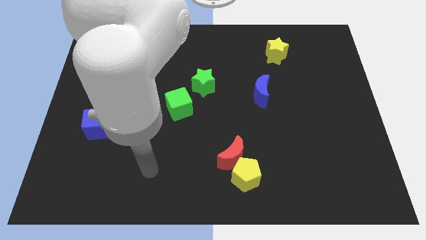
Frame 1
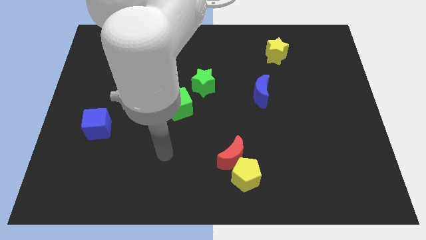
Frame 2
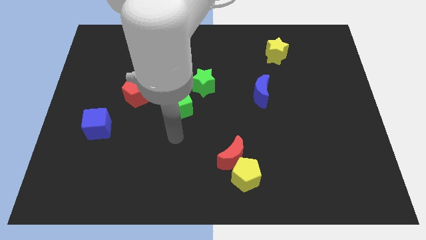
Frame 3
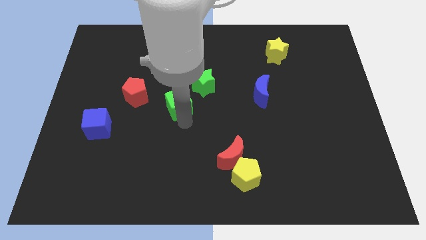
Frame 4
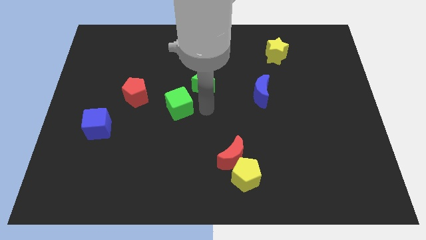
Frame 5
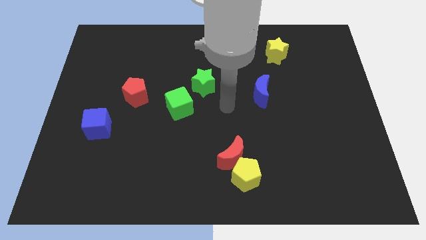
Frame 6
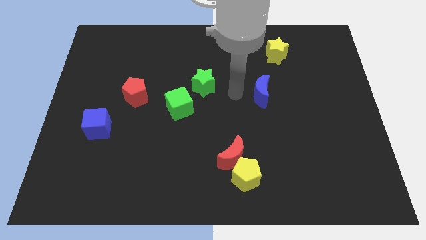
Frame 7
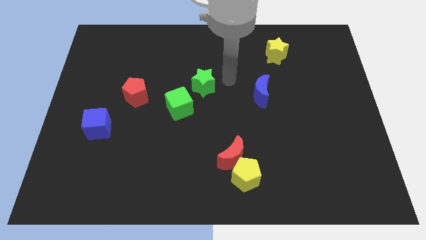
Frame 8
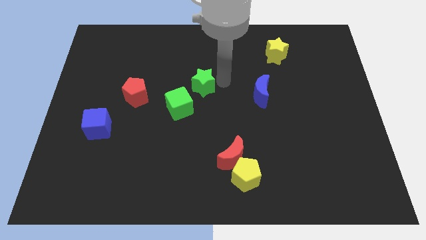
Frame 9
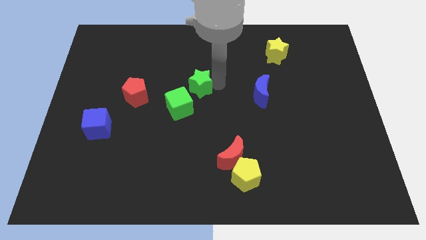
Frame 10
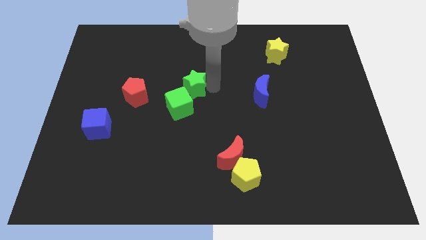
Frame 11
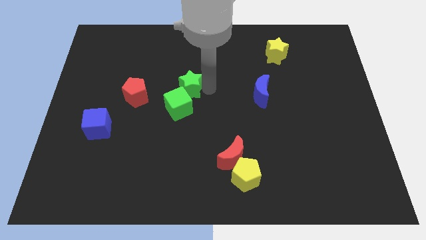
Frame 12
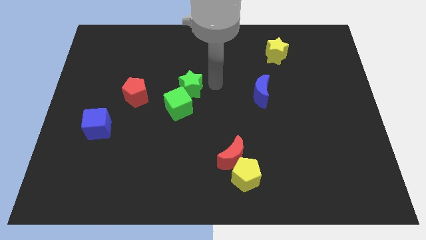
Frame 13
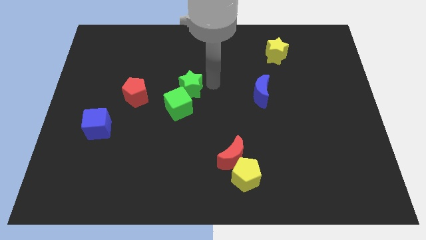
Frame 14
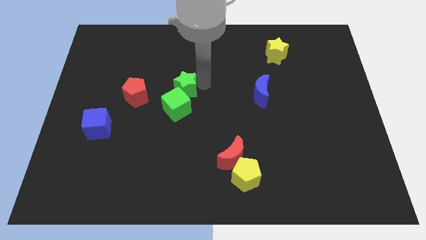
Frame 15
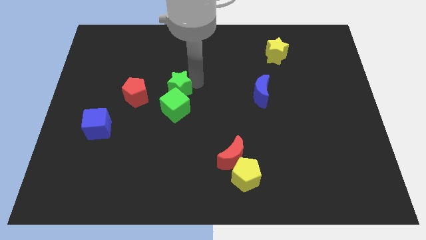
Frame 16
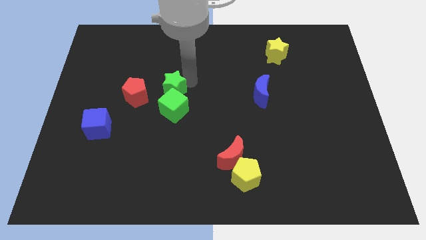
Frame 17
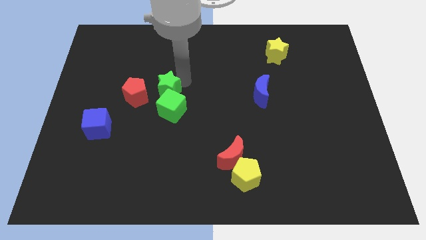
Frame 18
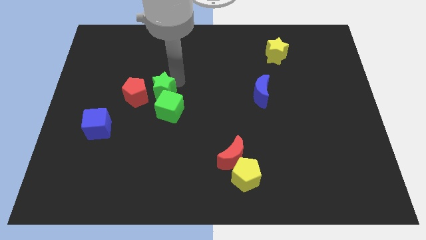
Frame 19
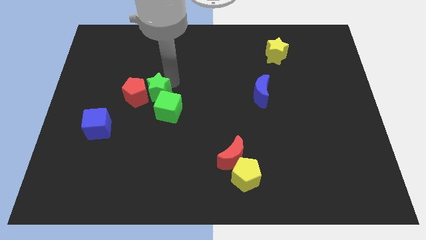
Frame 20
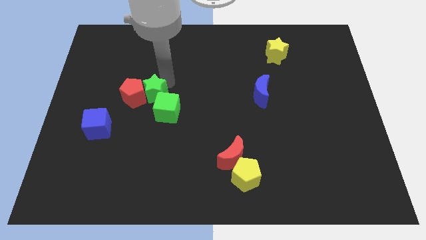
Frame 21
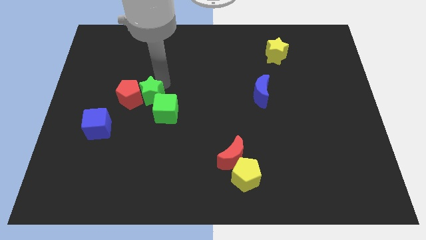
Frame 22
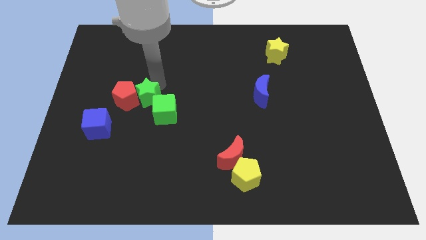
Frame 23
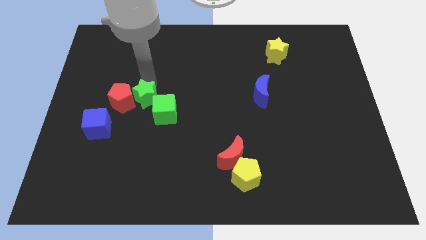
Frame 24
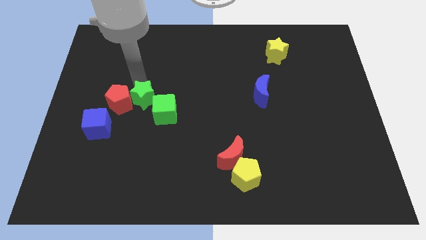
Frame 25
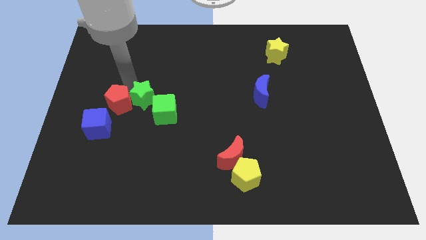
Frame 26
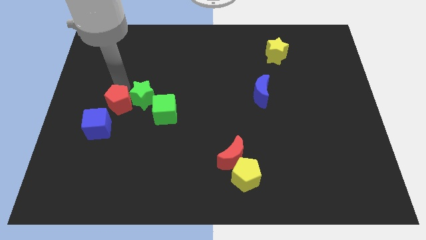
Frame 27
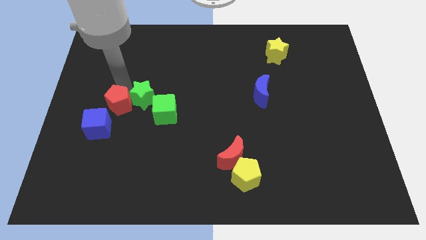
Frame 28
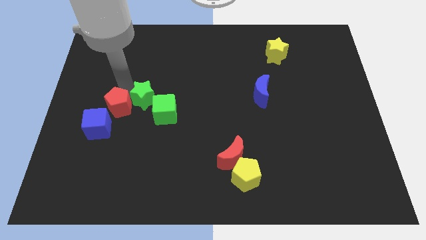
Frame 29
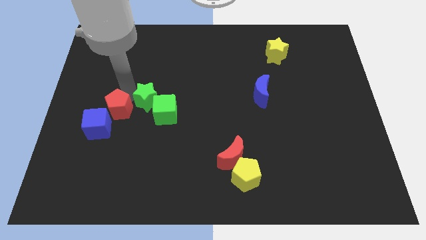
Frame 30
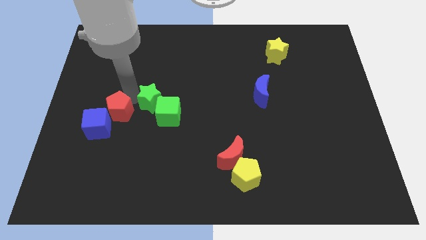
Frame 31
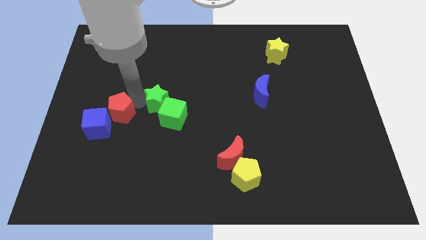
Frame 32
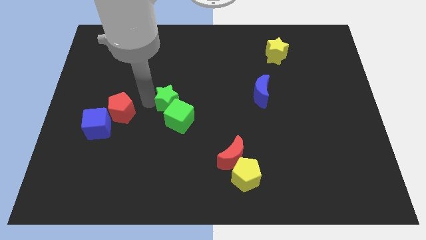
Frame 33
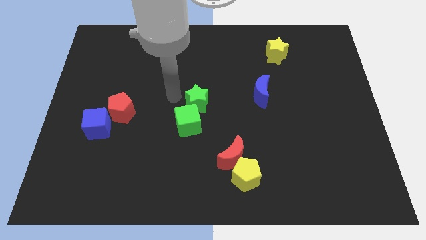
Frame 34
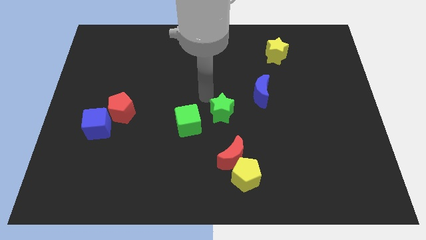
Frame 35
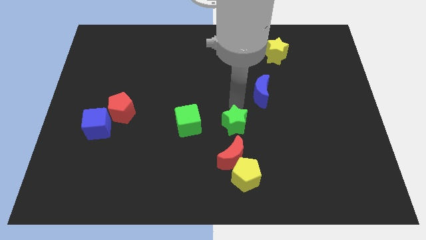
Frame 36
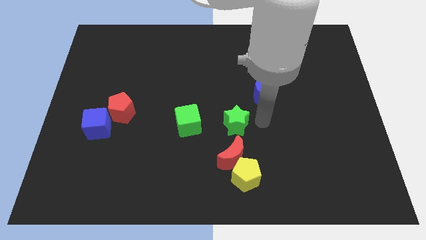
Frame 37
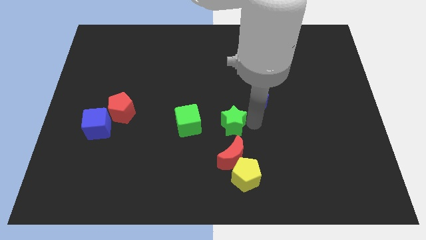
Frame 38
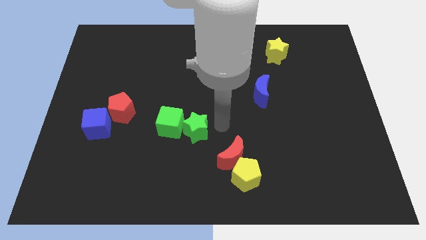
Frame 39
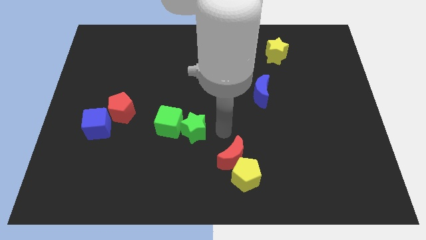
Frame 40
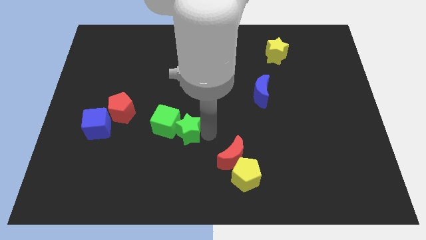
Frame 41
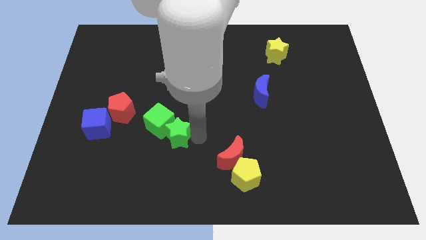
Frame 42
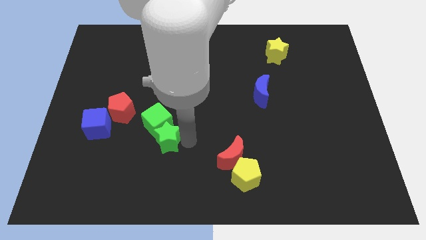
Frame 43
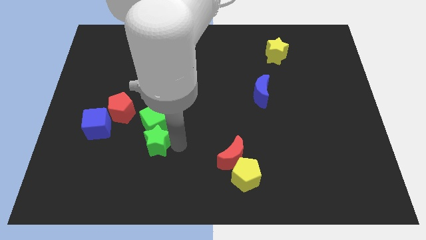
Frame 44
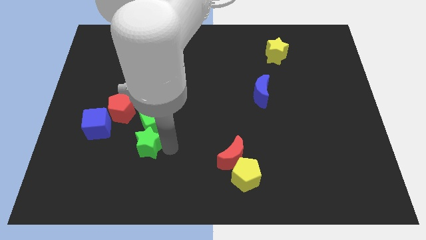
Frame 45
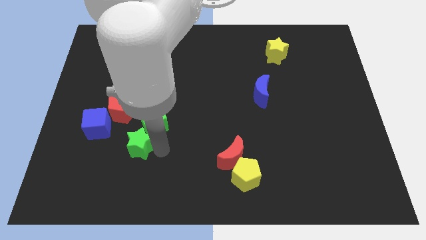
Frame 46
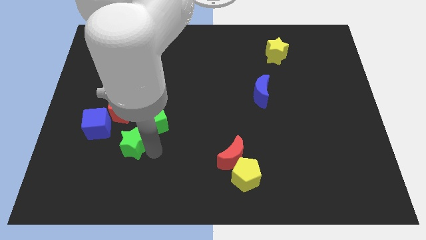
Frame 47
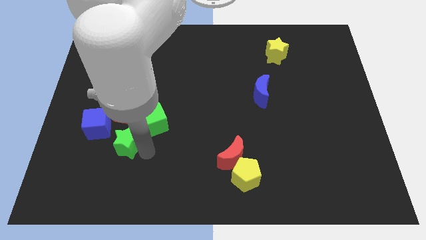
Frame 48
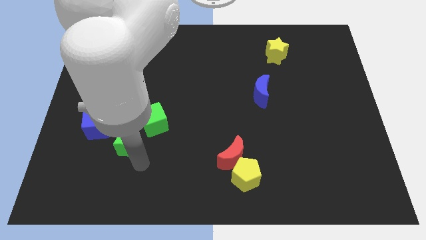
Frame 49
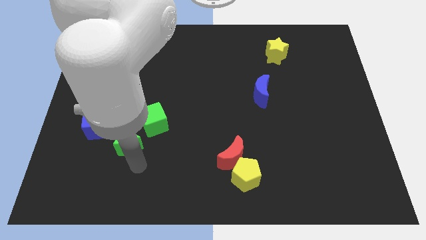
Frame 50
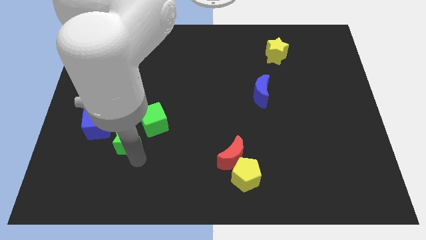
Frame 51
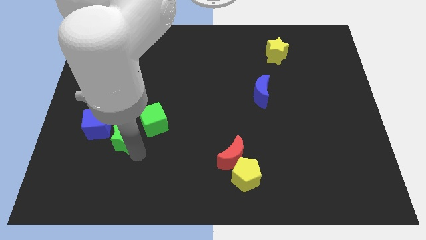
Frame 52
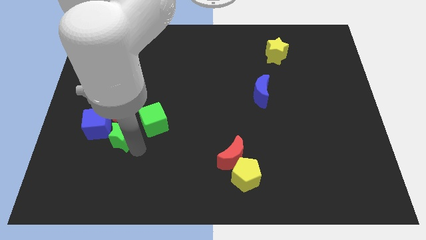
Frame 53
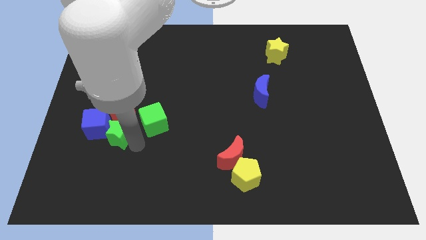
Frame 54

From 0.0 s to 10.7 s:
put the green star next to the blue cube

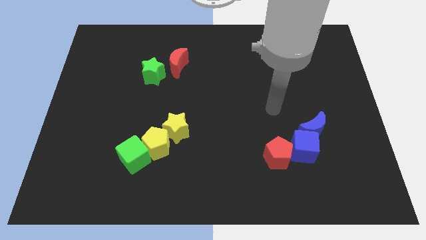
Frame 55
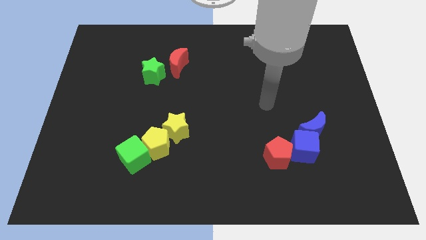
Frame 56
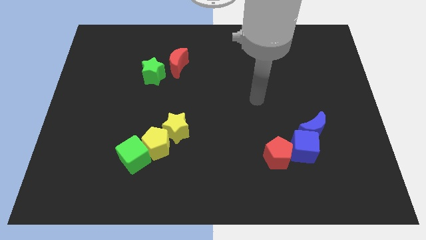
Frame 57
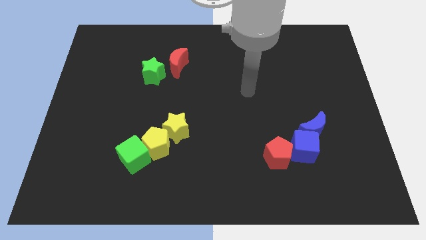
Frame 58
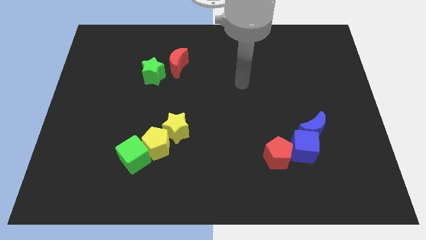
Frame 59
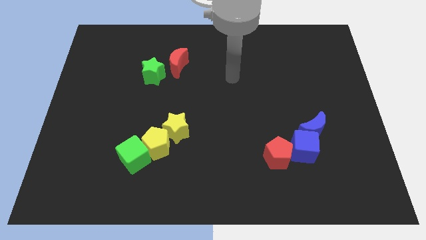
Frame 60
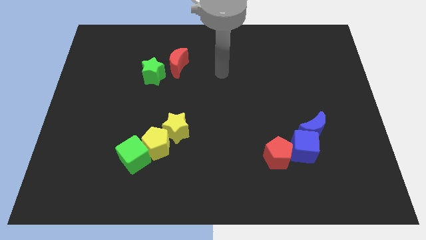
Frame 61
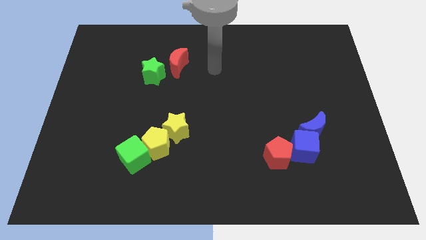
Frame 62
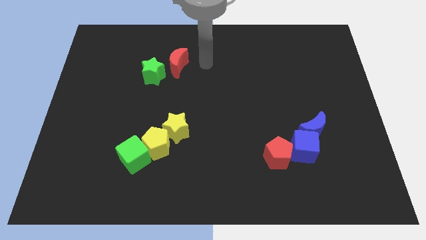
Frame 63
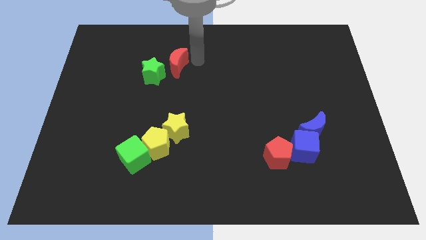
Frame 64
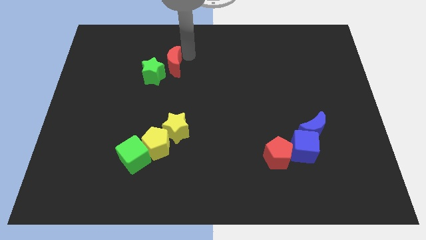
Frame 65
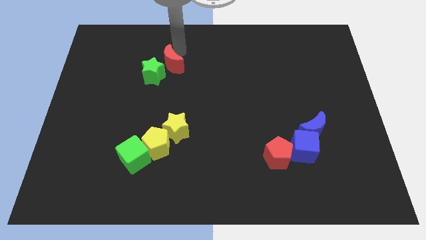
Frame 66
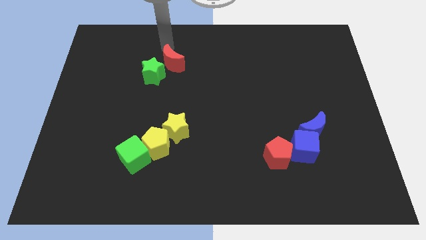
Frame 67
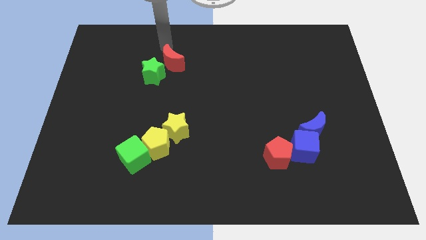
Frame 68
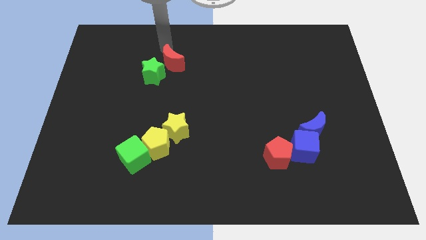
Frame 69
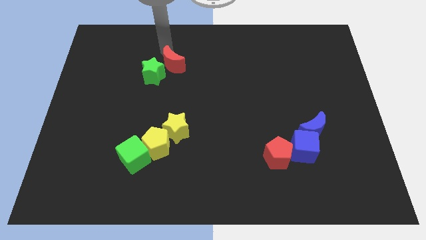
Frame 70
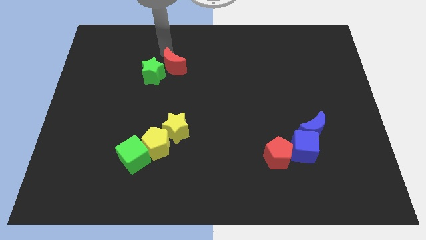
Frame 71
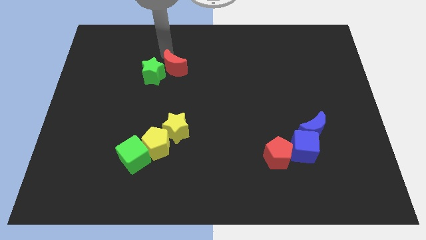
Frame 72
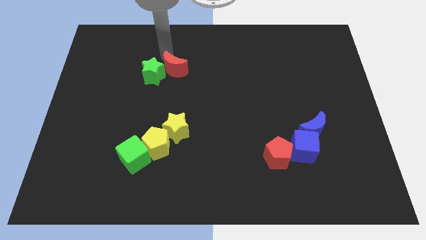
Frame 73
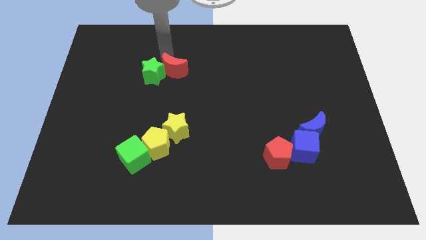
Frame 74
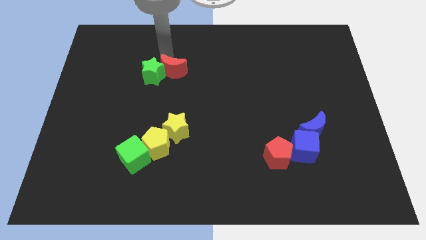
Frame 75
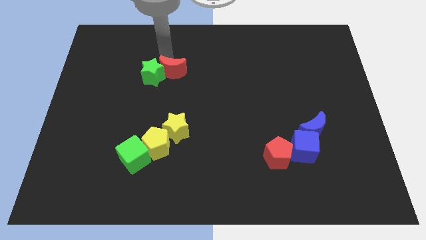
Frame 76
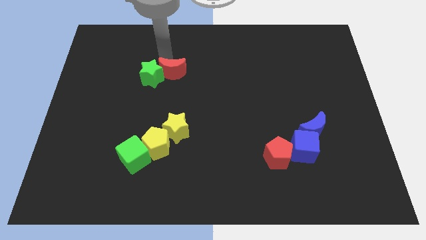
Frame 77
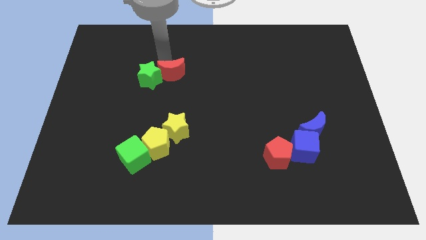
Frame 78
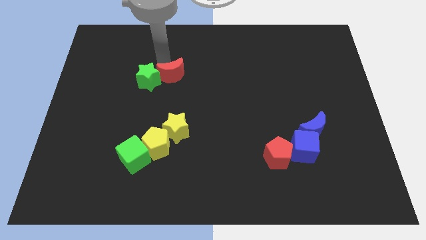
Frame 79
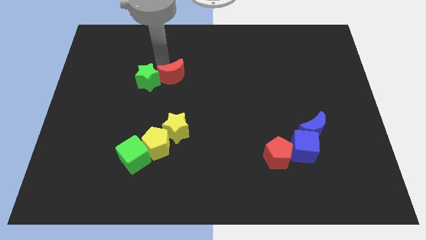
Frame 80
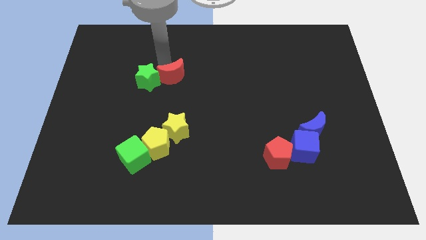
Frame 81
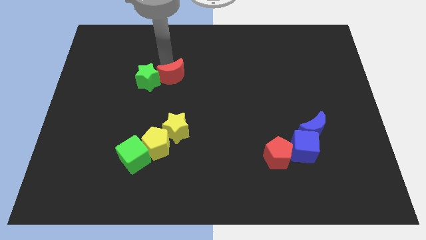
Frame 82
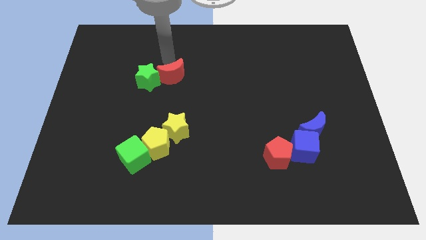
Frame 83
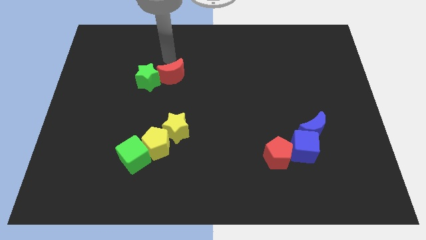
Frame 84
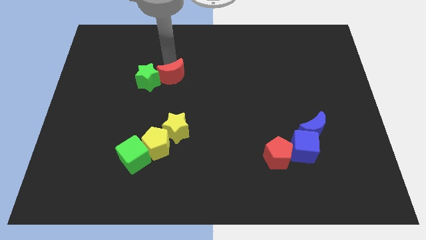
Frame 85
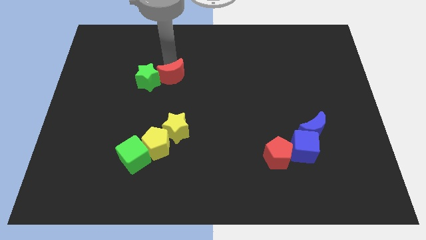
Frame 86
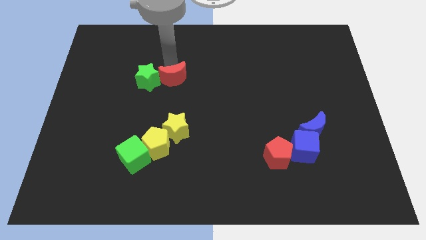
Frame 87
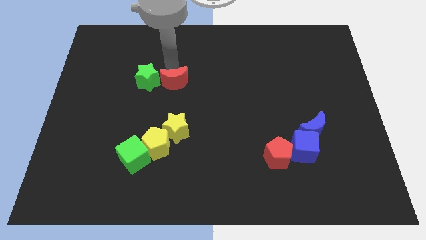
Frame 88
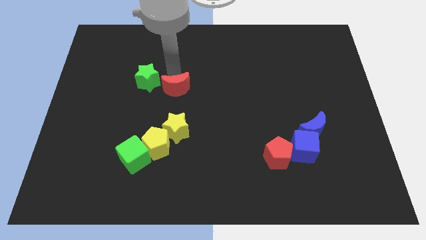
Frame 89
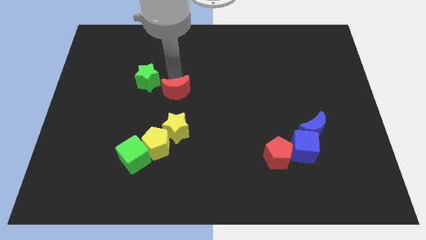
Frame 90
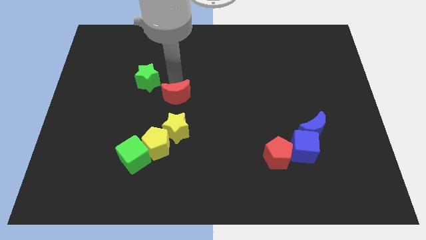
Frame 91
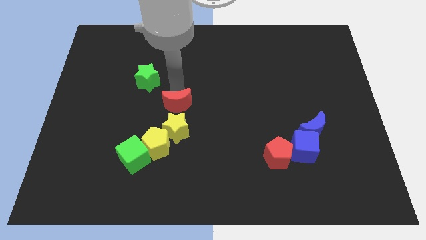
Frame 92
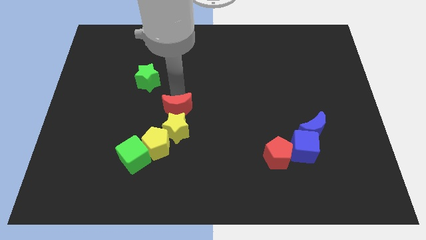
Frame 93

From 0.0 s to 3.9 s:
slide the red moon close to the yellow star
